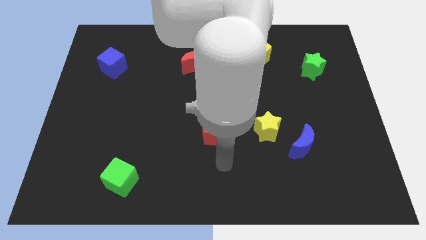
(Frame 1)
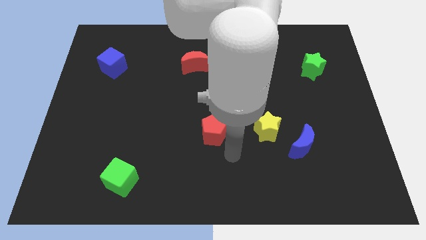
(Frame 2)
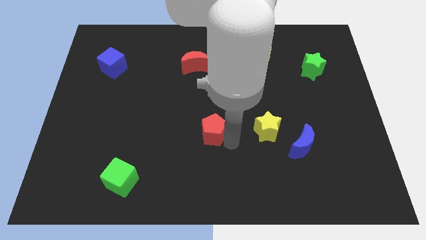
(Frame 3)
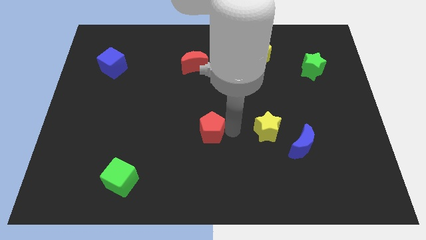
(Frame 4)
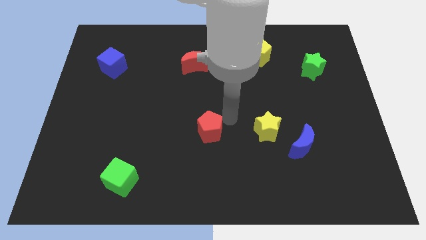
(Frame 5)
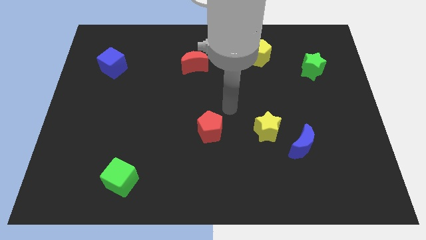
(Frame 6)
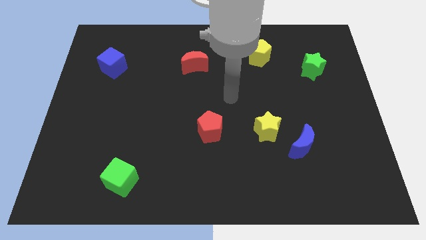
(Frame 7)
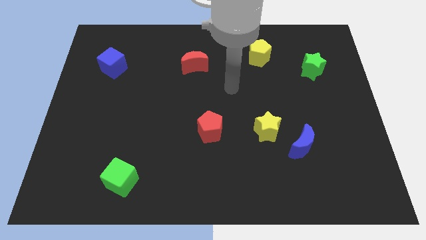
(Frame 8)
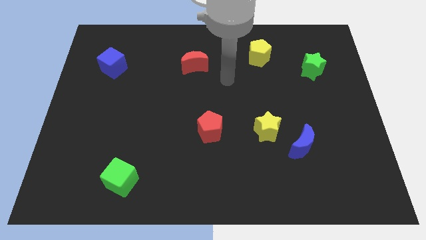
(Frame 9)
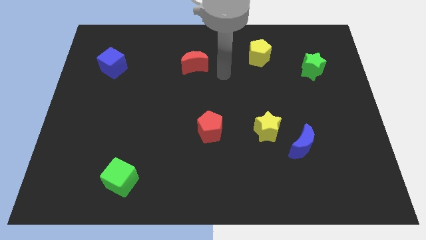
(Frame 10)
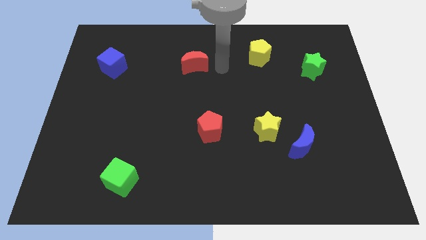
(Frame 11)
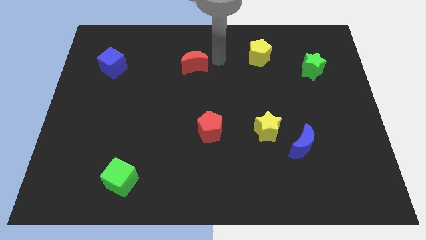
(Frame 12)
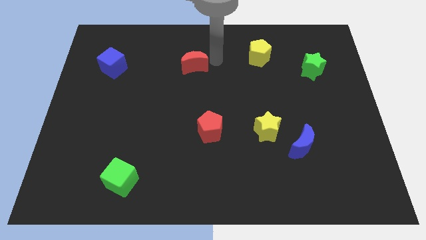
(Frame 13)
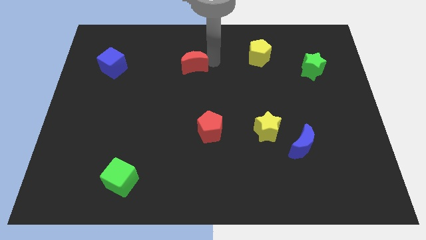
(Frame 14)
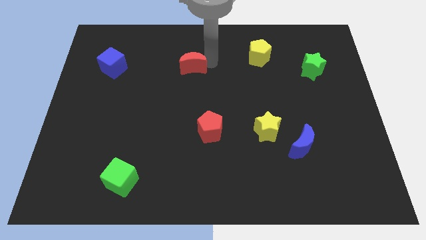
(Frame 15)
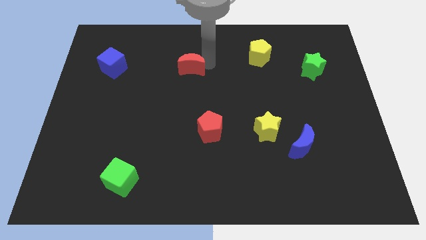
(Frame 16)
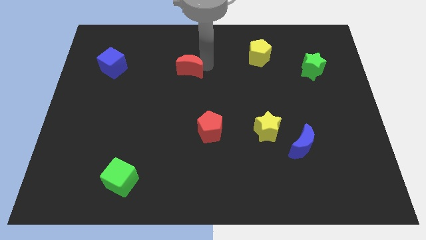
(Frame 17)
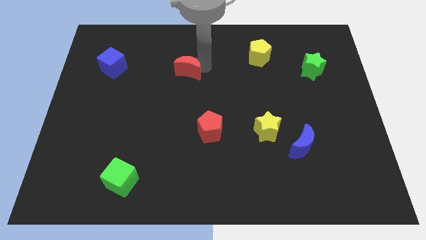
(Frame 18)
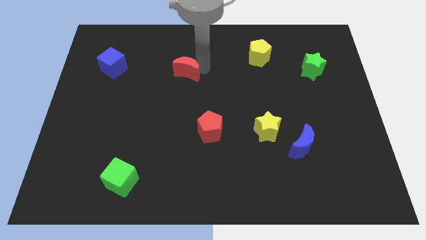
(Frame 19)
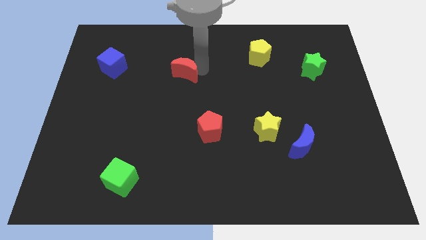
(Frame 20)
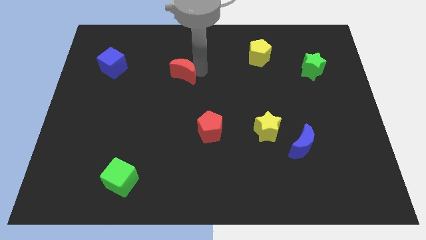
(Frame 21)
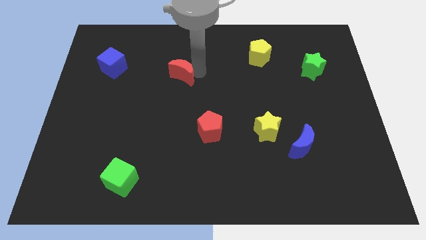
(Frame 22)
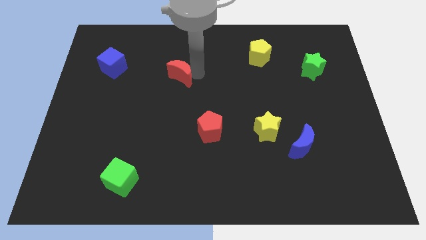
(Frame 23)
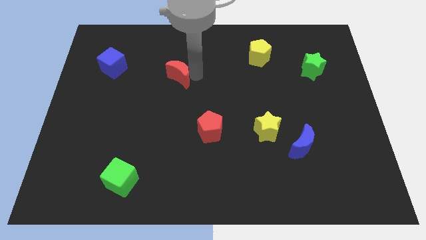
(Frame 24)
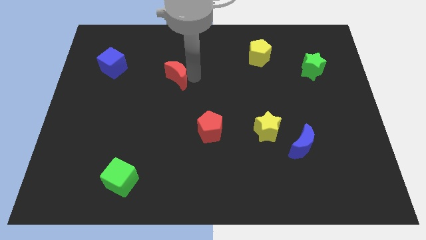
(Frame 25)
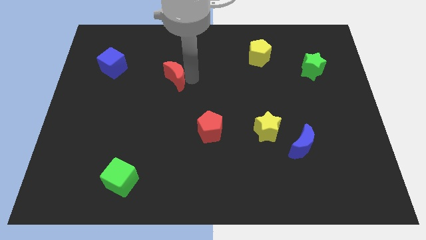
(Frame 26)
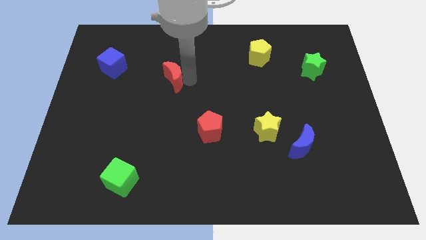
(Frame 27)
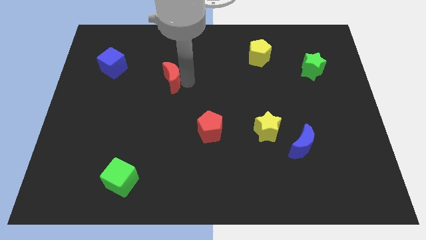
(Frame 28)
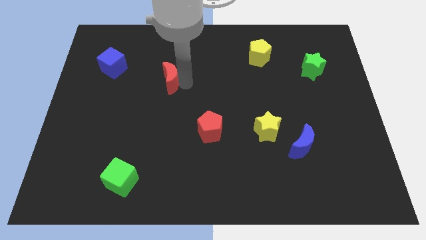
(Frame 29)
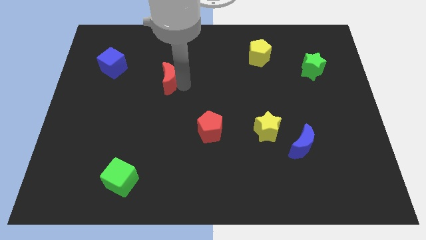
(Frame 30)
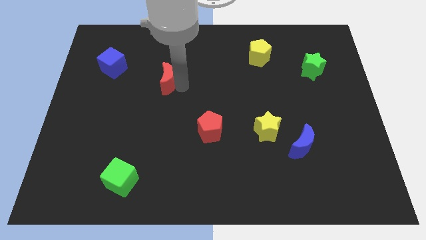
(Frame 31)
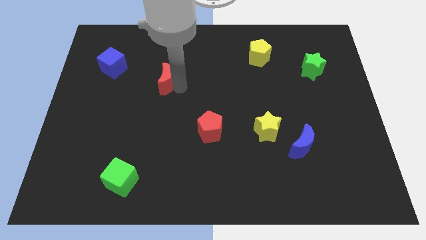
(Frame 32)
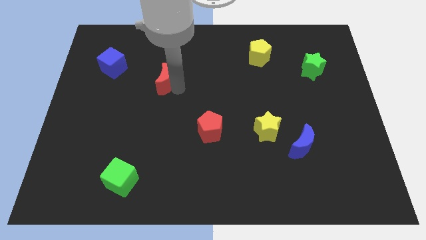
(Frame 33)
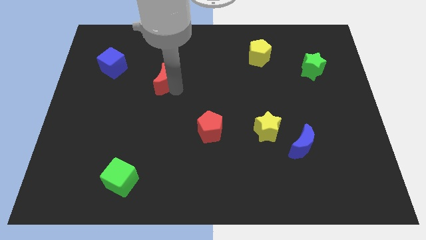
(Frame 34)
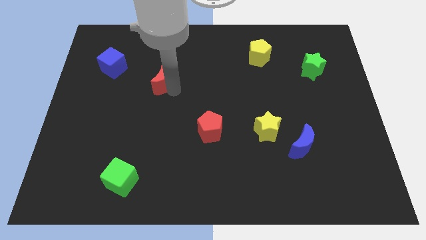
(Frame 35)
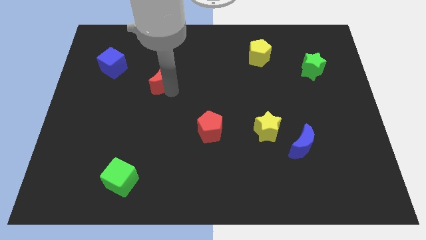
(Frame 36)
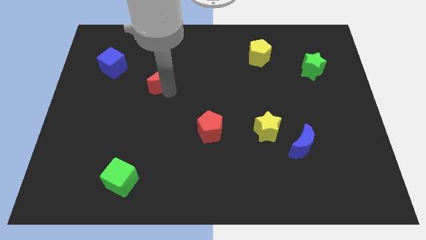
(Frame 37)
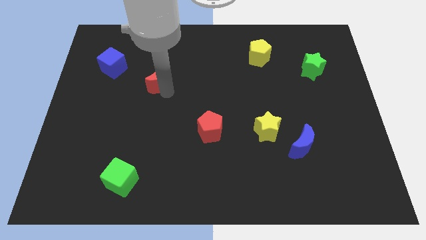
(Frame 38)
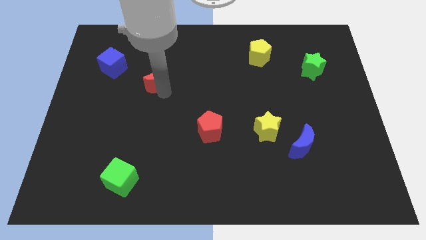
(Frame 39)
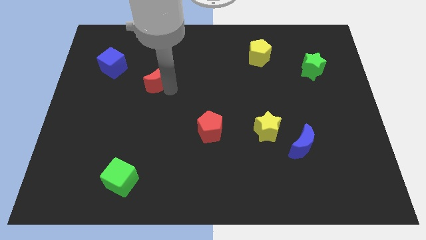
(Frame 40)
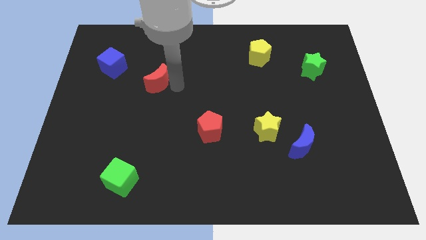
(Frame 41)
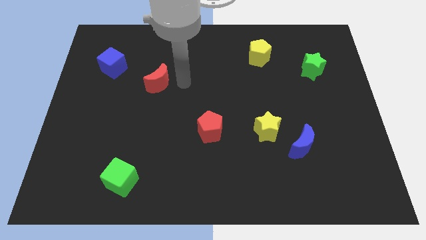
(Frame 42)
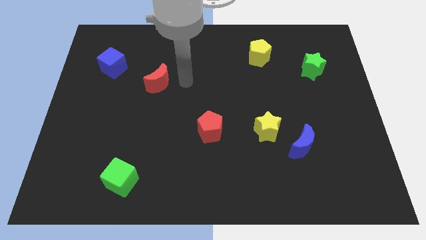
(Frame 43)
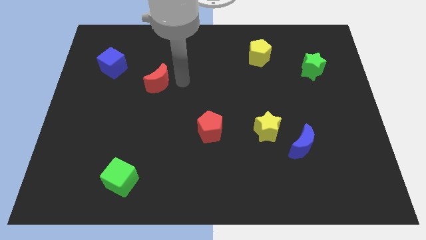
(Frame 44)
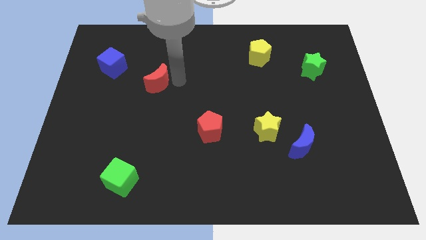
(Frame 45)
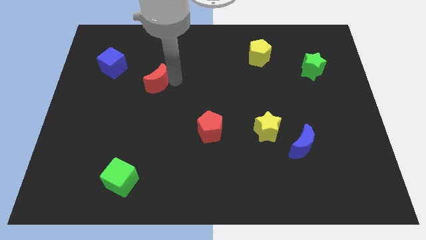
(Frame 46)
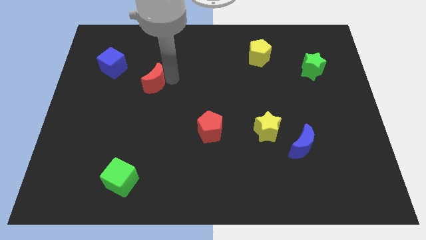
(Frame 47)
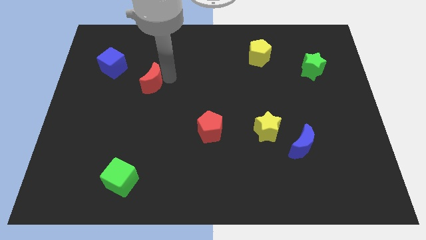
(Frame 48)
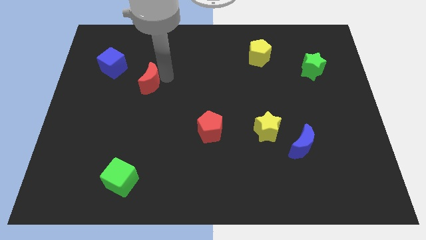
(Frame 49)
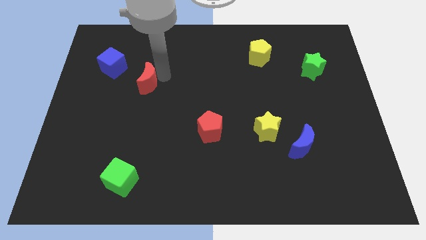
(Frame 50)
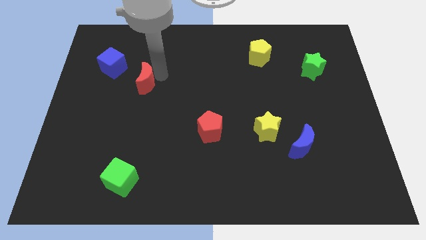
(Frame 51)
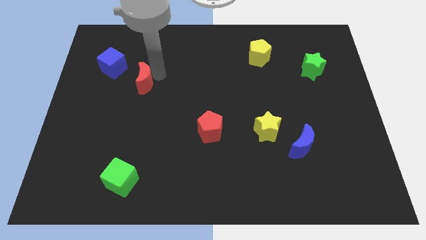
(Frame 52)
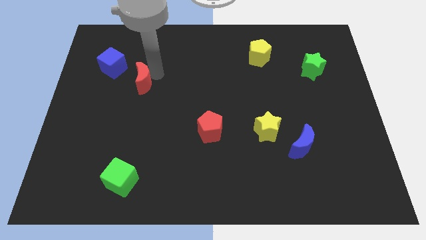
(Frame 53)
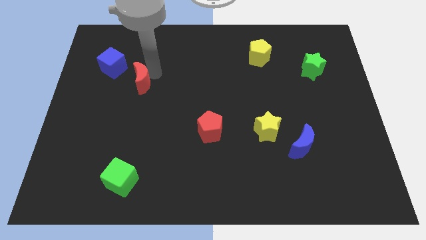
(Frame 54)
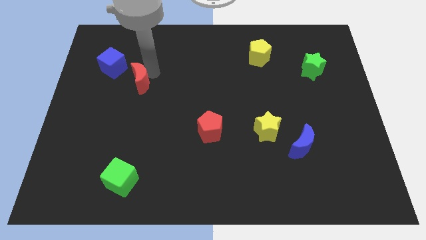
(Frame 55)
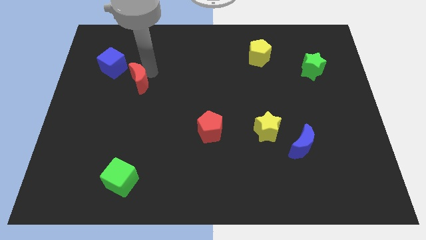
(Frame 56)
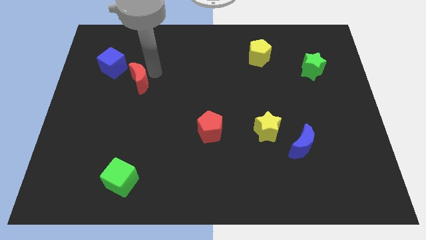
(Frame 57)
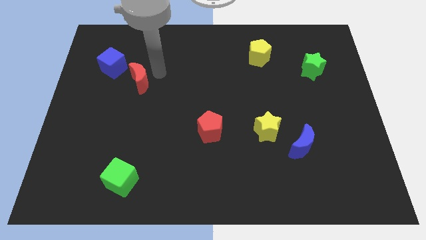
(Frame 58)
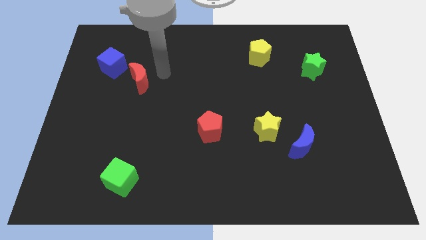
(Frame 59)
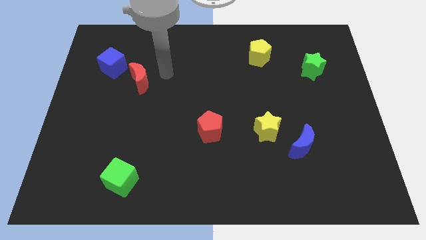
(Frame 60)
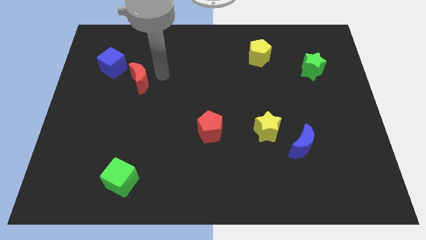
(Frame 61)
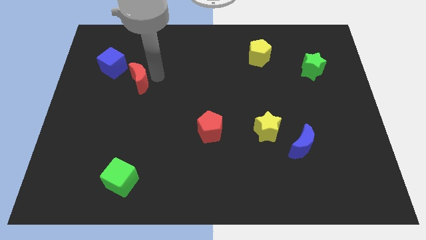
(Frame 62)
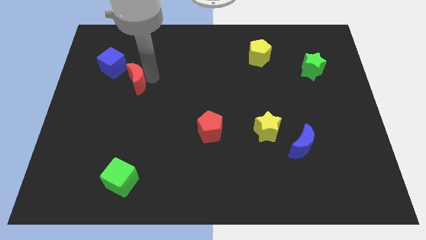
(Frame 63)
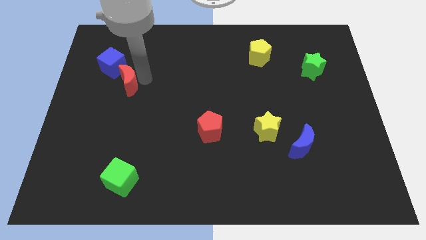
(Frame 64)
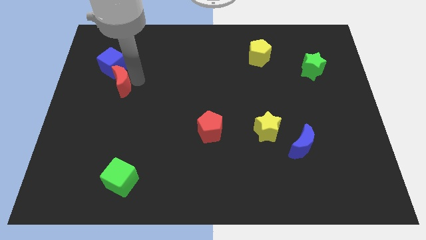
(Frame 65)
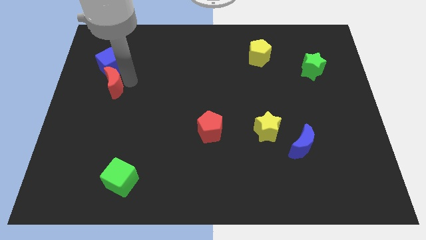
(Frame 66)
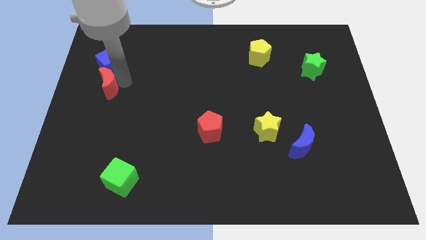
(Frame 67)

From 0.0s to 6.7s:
put the red moon to the center left

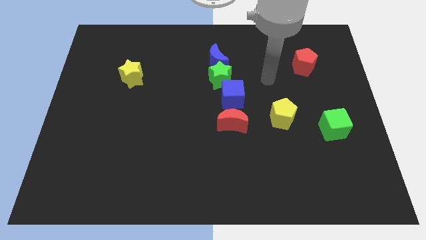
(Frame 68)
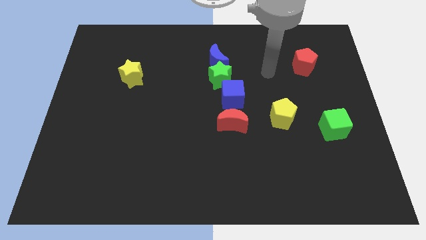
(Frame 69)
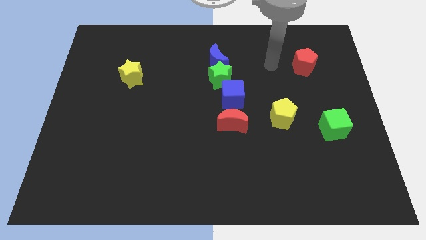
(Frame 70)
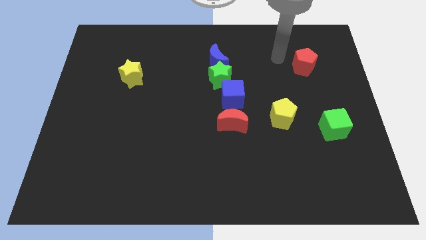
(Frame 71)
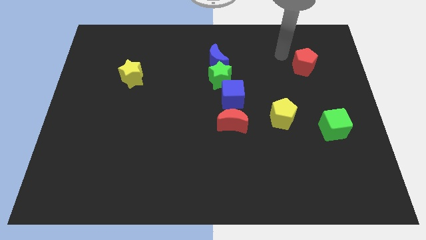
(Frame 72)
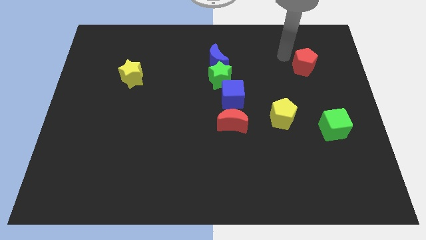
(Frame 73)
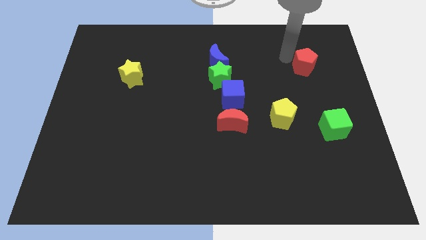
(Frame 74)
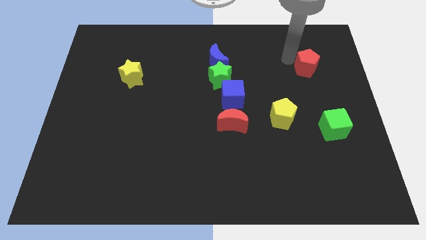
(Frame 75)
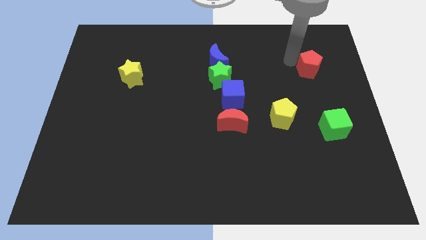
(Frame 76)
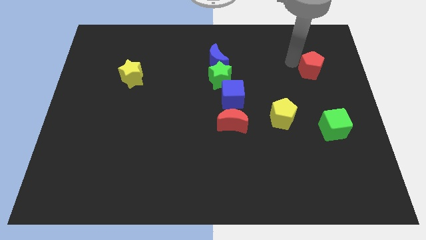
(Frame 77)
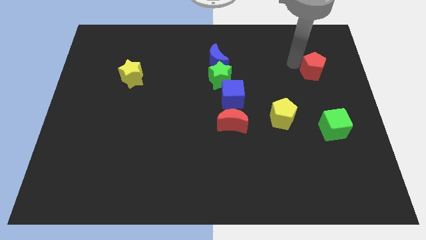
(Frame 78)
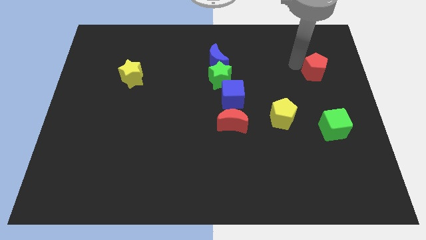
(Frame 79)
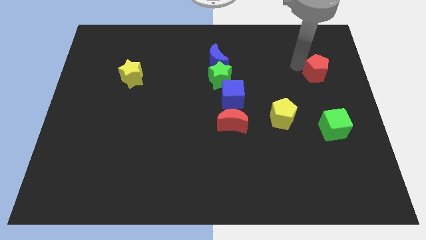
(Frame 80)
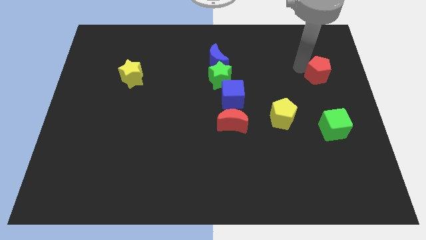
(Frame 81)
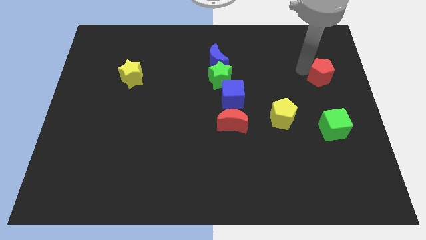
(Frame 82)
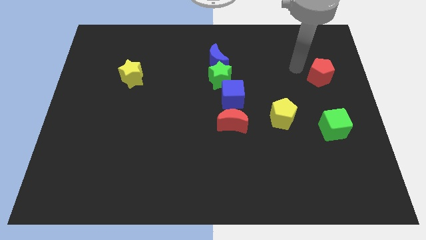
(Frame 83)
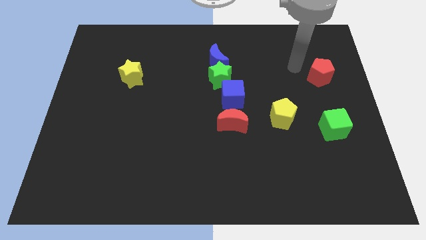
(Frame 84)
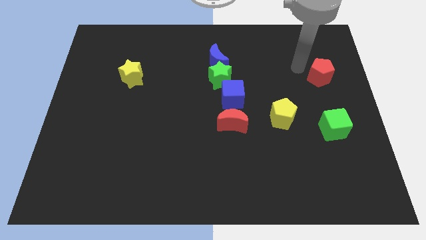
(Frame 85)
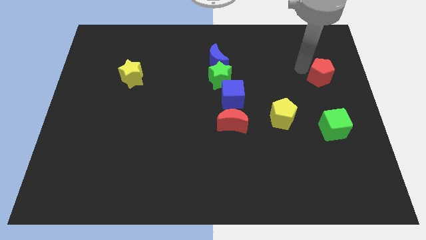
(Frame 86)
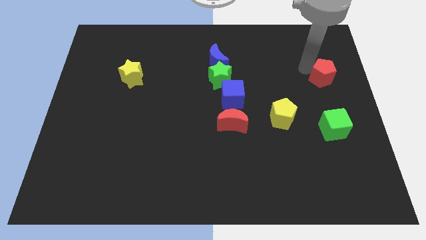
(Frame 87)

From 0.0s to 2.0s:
push the red pentagon to the right side
